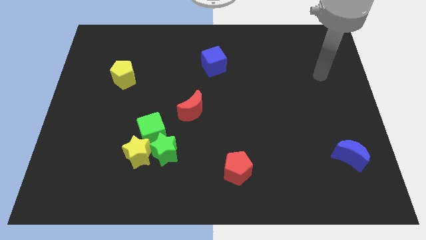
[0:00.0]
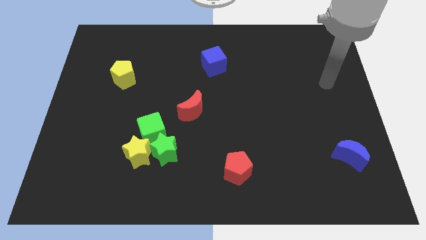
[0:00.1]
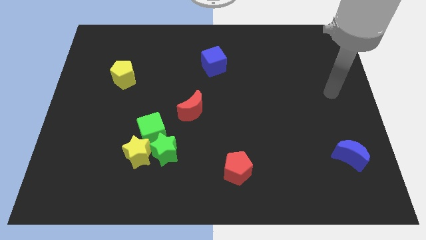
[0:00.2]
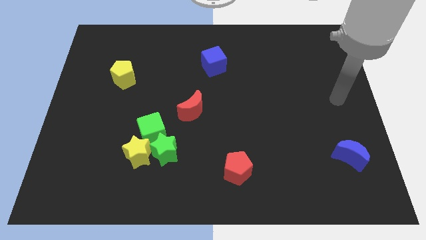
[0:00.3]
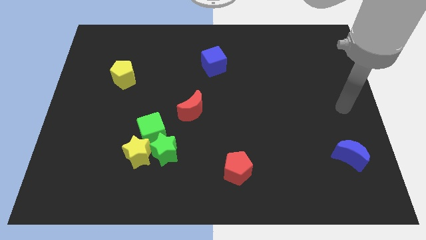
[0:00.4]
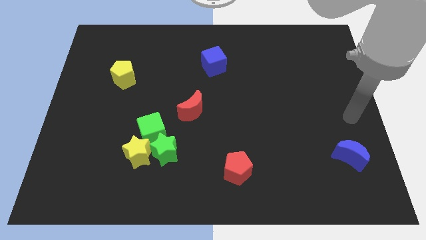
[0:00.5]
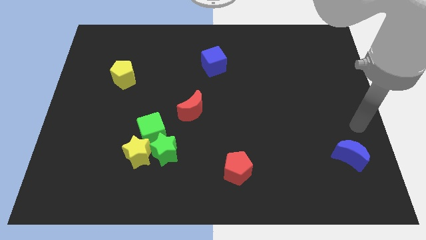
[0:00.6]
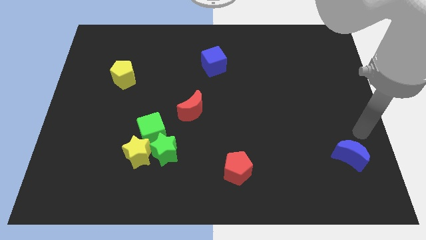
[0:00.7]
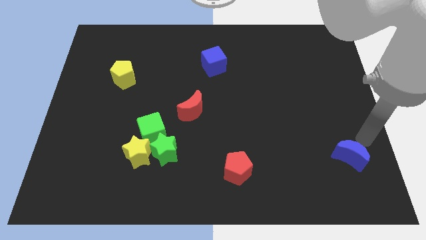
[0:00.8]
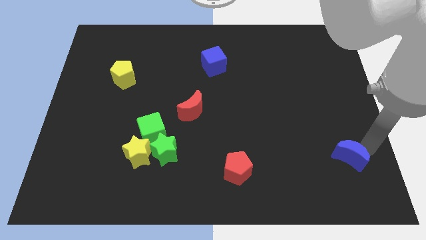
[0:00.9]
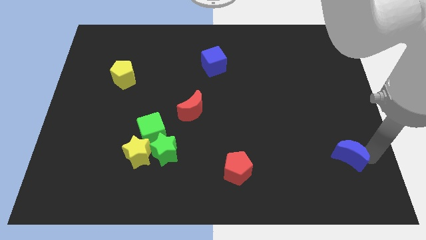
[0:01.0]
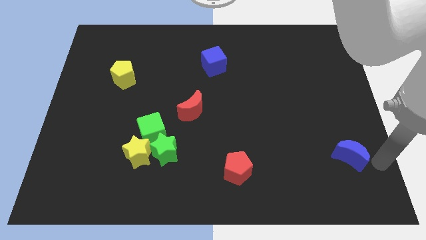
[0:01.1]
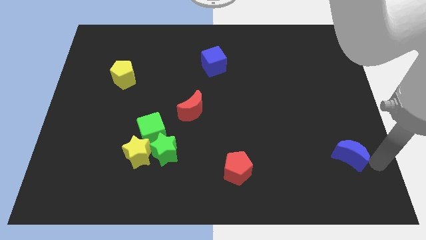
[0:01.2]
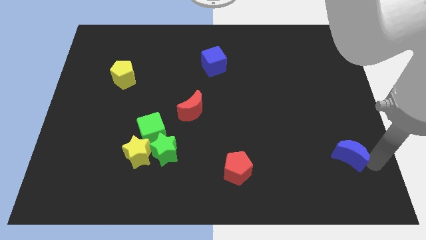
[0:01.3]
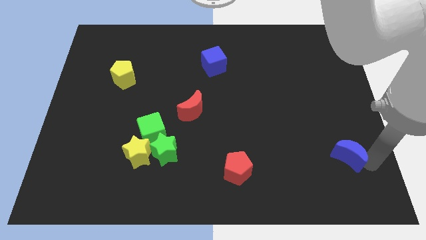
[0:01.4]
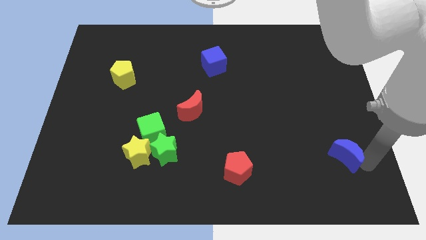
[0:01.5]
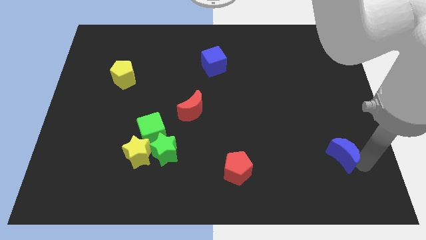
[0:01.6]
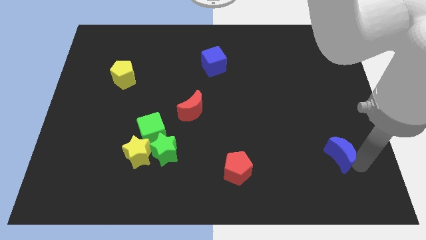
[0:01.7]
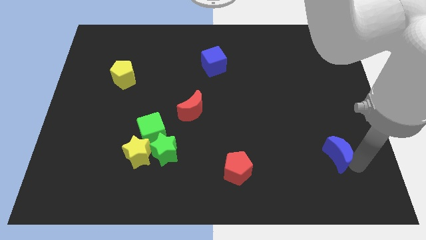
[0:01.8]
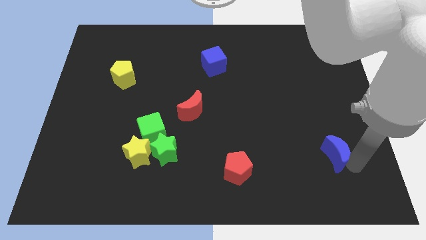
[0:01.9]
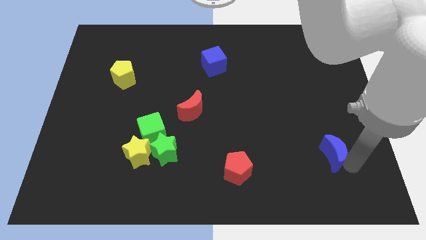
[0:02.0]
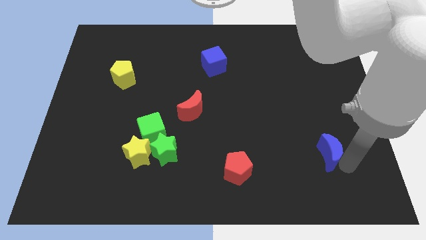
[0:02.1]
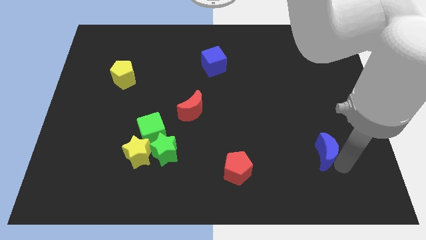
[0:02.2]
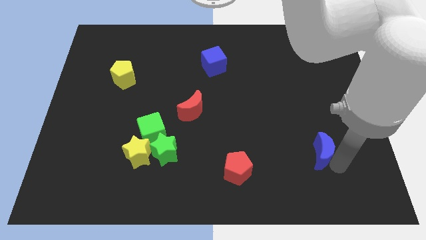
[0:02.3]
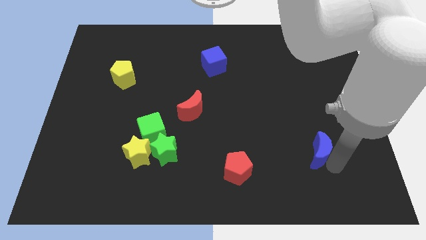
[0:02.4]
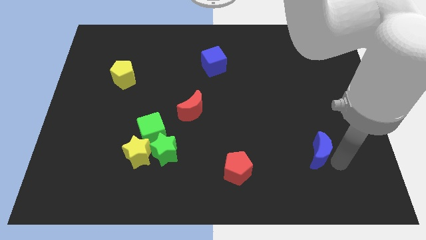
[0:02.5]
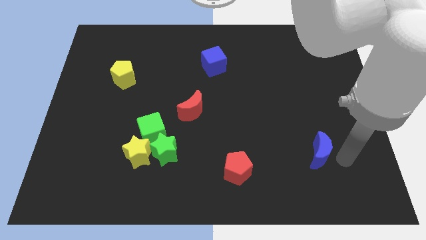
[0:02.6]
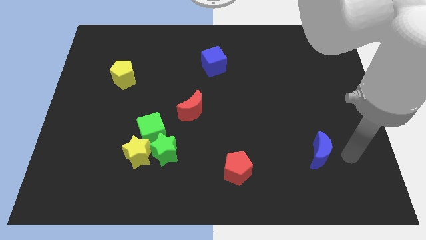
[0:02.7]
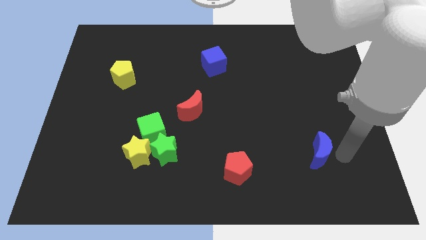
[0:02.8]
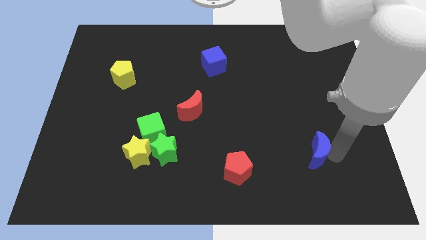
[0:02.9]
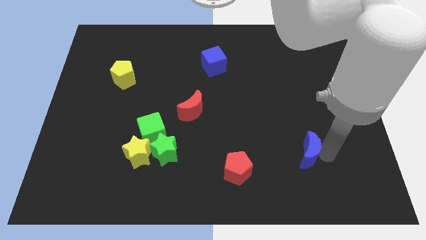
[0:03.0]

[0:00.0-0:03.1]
push the blue moon to the left slightly

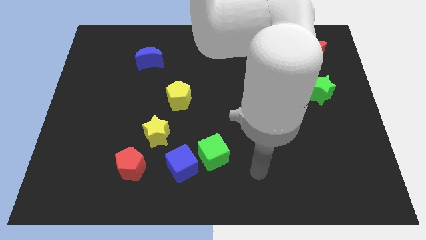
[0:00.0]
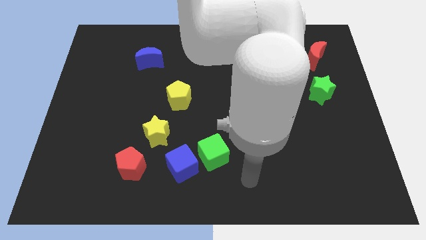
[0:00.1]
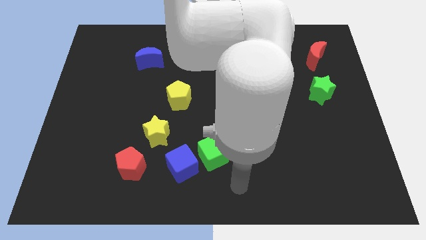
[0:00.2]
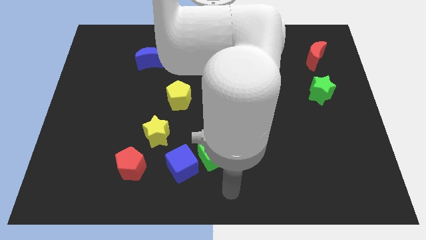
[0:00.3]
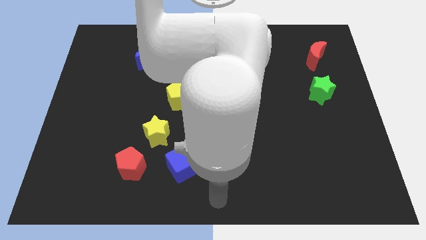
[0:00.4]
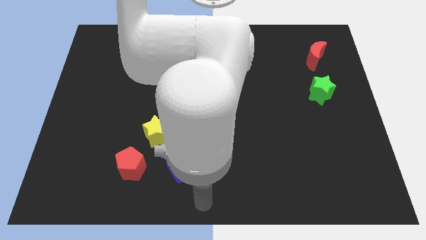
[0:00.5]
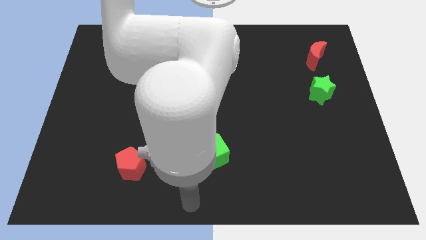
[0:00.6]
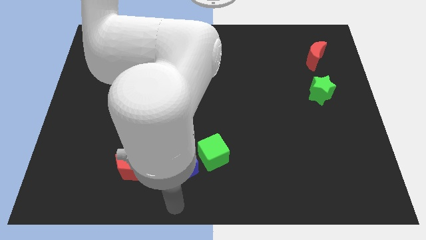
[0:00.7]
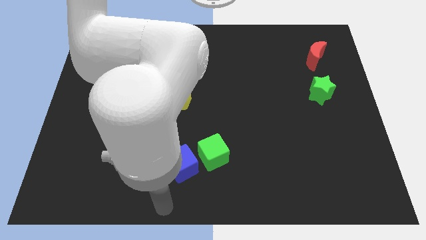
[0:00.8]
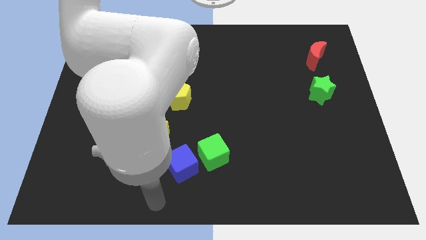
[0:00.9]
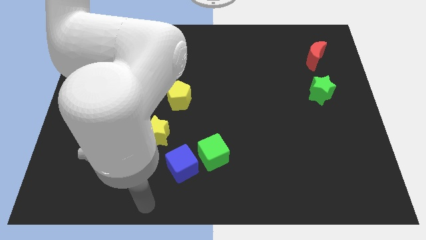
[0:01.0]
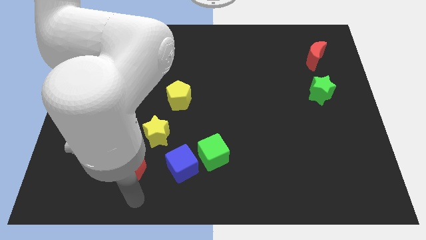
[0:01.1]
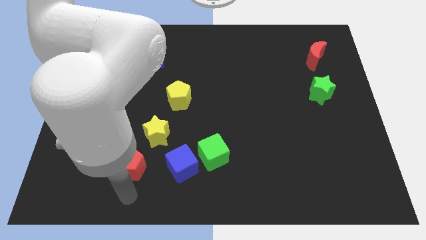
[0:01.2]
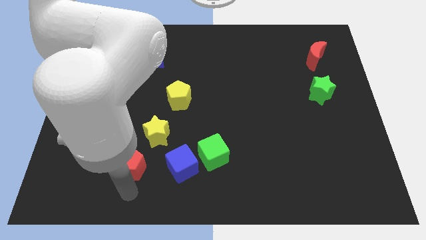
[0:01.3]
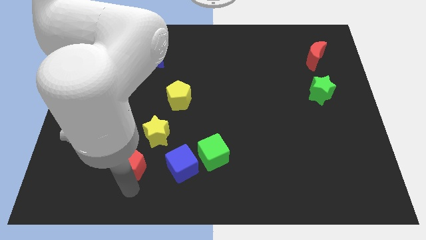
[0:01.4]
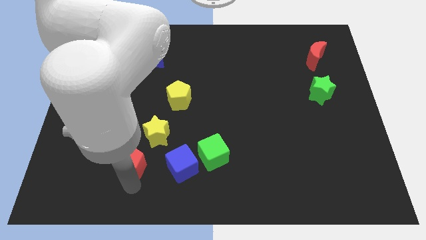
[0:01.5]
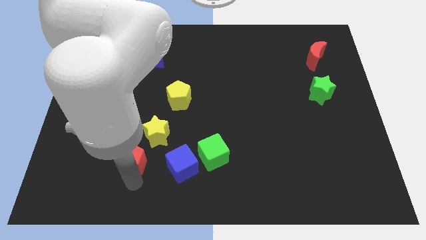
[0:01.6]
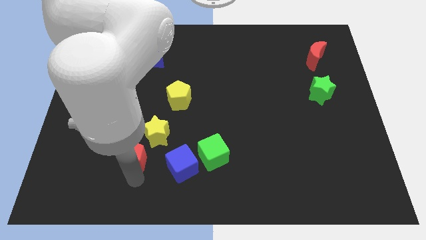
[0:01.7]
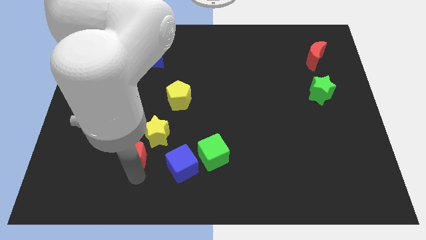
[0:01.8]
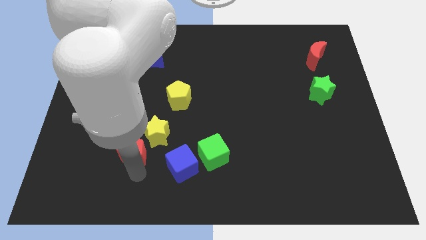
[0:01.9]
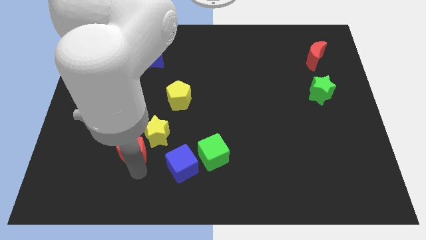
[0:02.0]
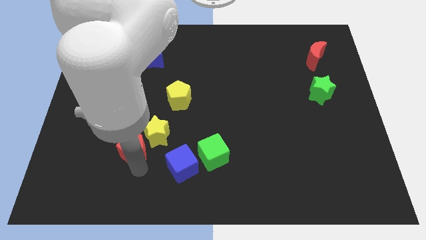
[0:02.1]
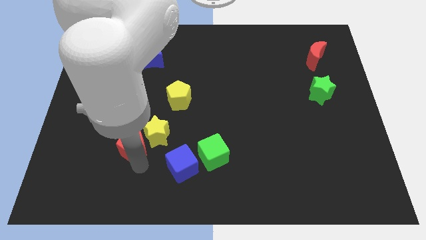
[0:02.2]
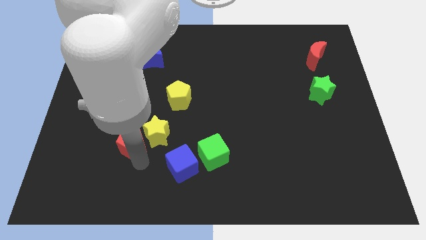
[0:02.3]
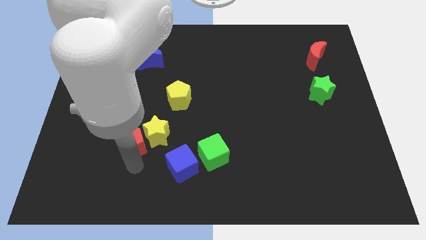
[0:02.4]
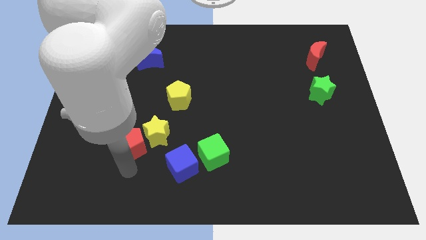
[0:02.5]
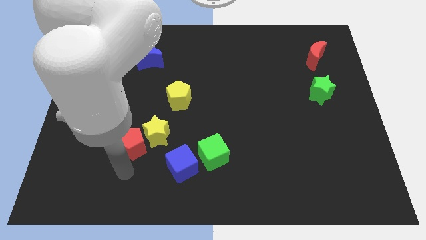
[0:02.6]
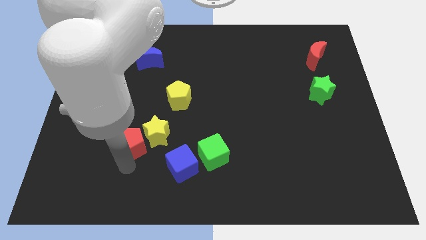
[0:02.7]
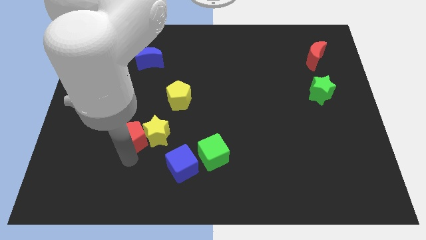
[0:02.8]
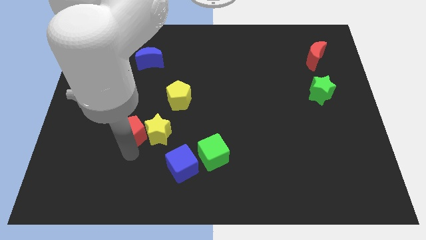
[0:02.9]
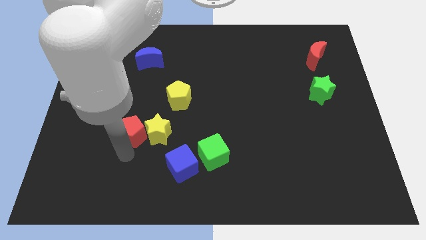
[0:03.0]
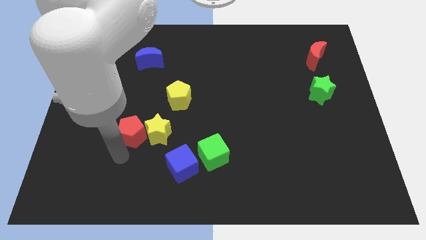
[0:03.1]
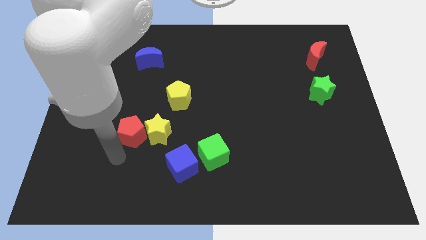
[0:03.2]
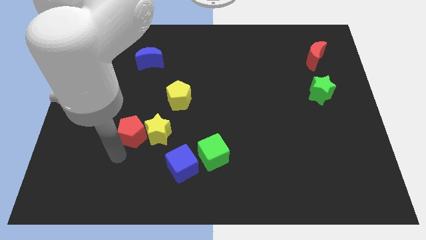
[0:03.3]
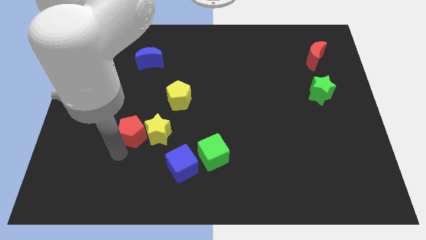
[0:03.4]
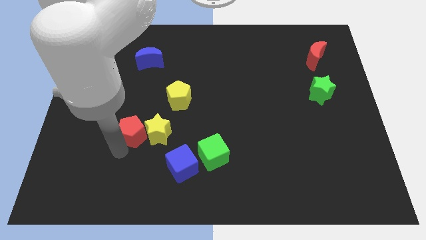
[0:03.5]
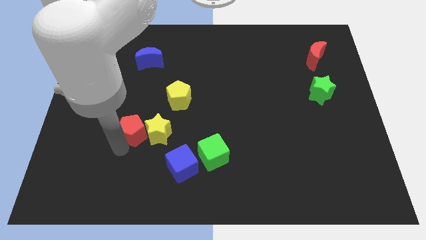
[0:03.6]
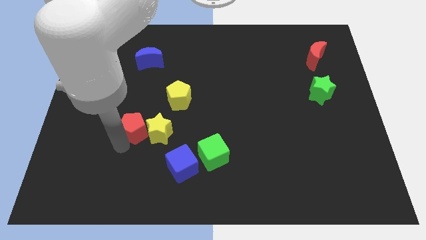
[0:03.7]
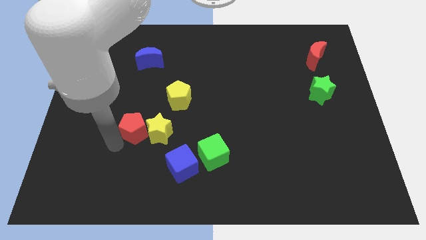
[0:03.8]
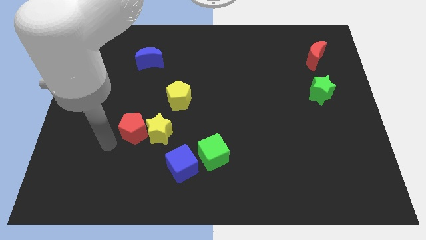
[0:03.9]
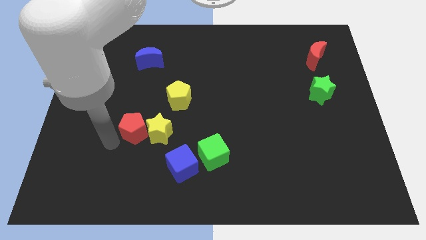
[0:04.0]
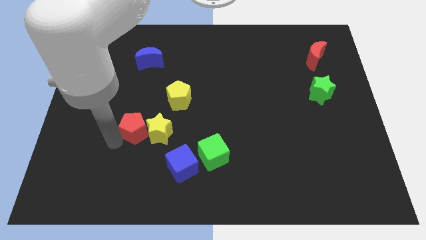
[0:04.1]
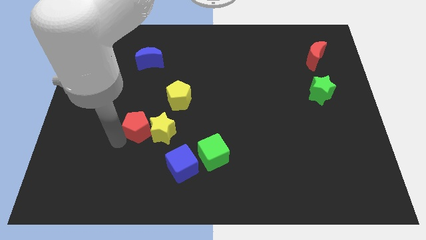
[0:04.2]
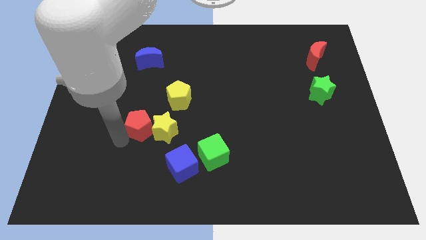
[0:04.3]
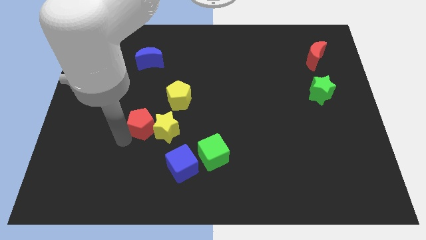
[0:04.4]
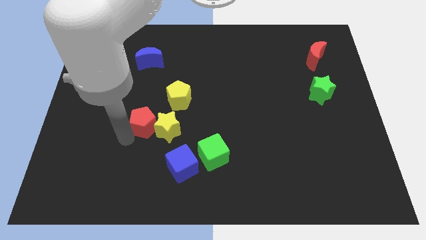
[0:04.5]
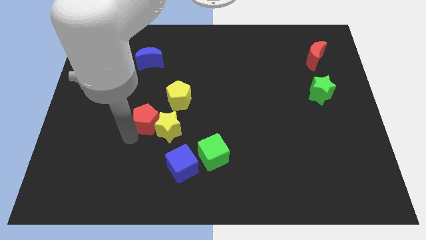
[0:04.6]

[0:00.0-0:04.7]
move the red pentagon a bit diagonally up and right

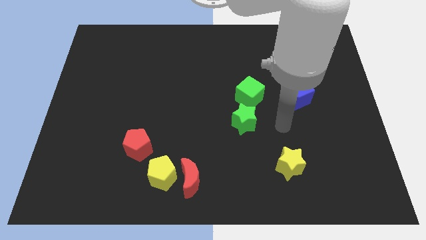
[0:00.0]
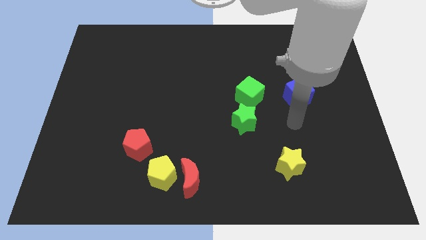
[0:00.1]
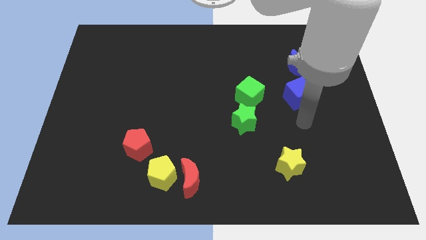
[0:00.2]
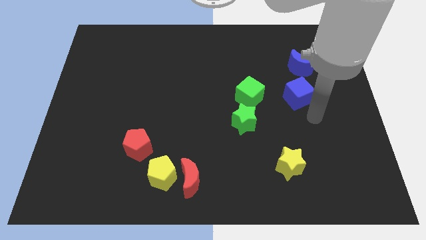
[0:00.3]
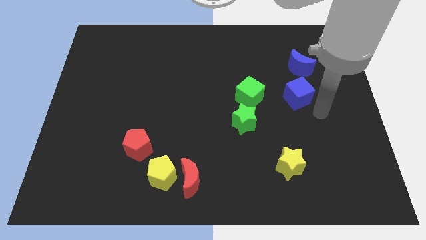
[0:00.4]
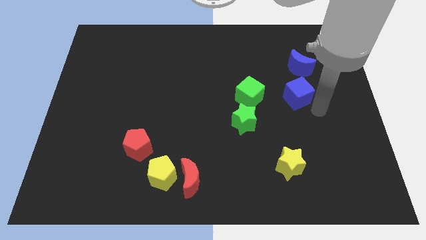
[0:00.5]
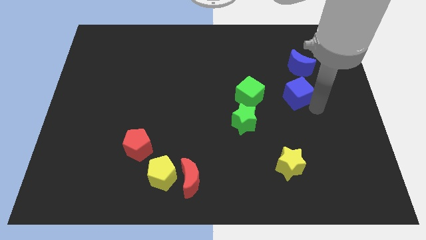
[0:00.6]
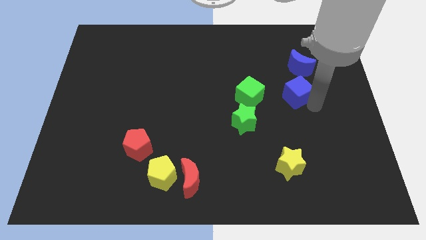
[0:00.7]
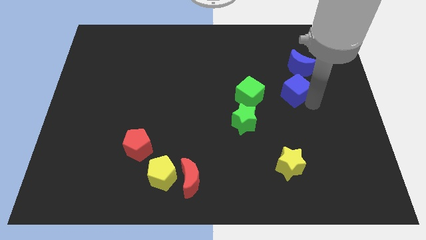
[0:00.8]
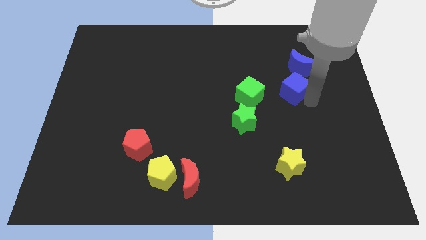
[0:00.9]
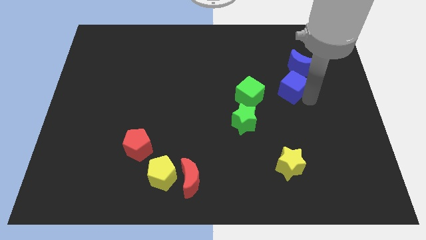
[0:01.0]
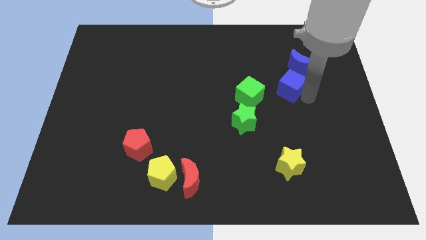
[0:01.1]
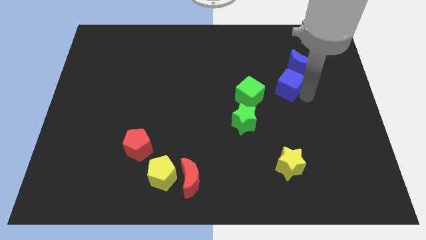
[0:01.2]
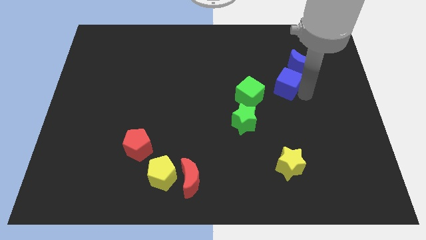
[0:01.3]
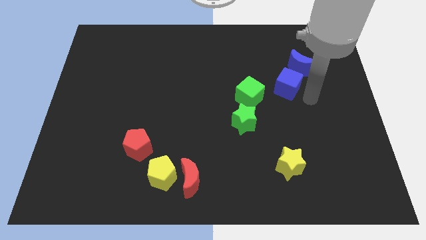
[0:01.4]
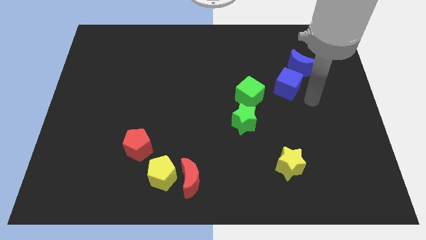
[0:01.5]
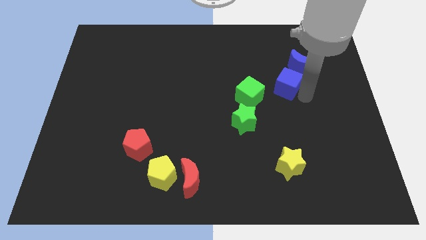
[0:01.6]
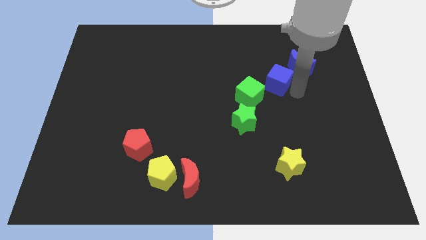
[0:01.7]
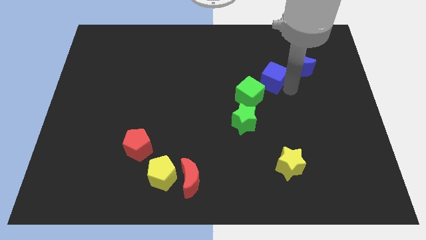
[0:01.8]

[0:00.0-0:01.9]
push the blue cube up and left diagonally a little
